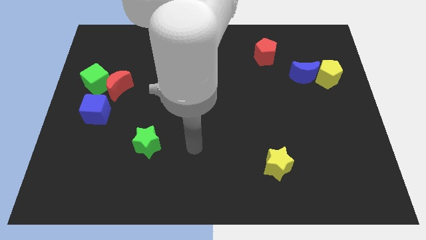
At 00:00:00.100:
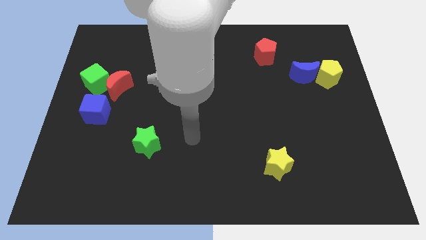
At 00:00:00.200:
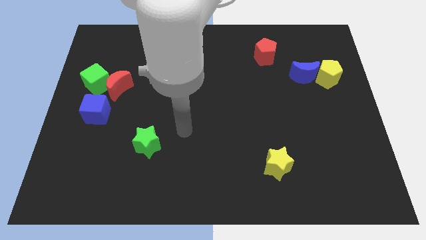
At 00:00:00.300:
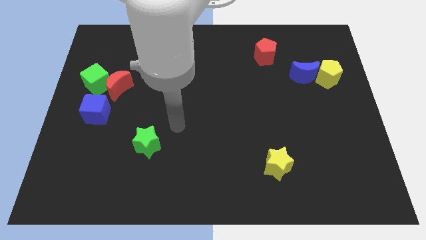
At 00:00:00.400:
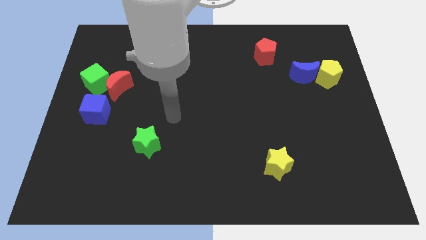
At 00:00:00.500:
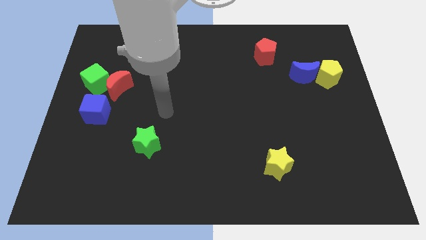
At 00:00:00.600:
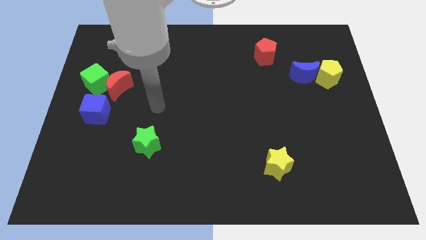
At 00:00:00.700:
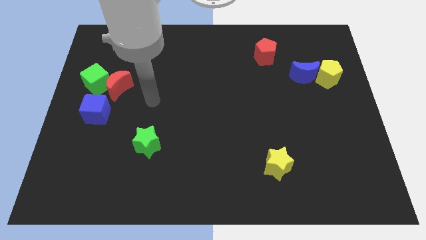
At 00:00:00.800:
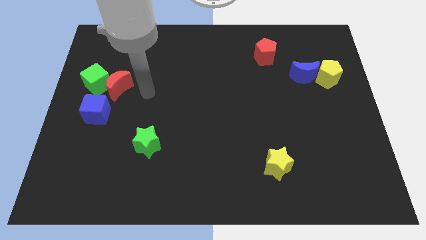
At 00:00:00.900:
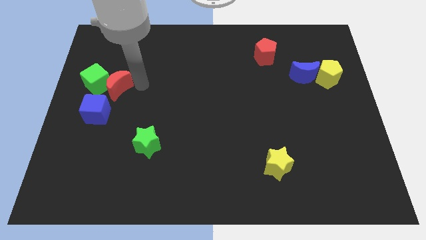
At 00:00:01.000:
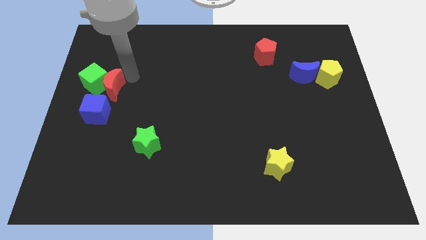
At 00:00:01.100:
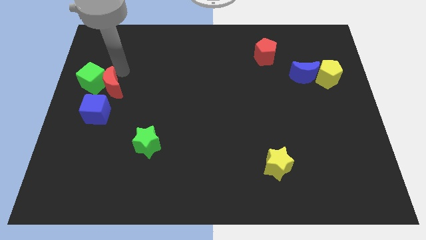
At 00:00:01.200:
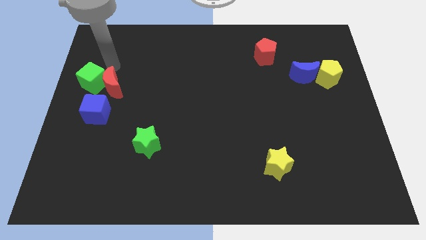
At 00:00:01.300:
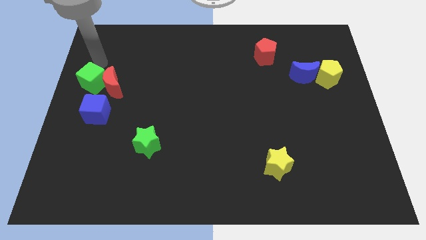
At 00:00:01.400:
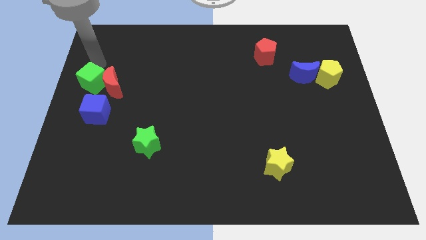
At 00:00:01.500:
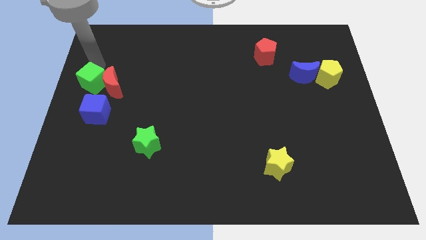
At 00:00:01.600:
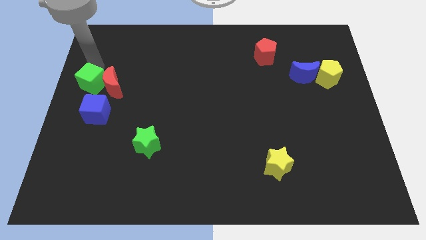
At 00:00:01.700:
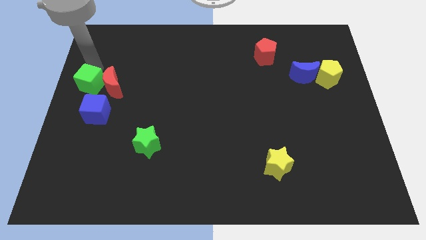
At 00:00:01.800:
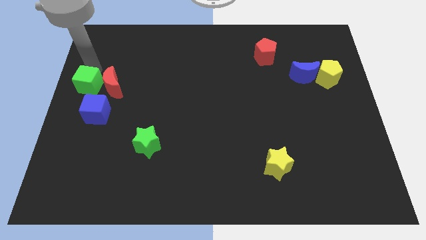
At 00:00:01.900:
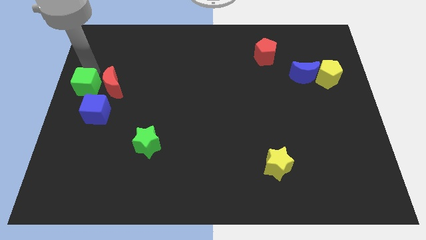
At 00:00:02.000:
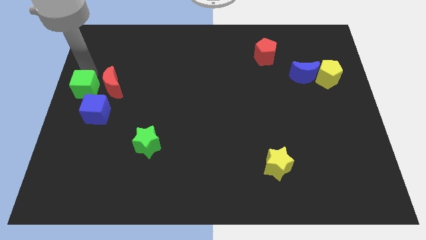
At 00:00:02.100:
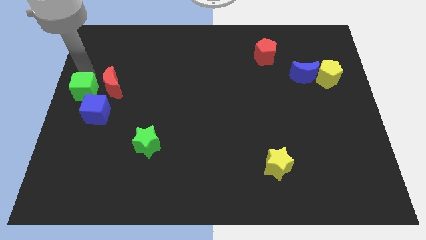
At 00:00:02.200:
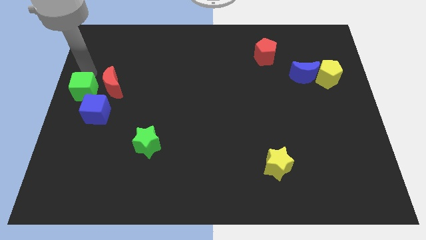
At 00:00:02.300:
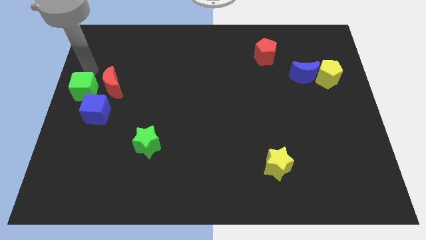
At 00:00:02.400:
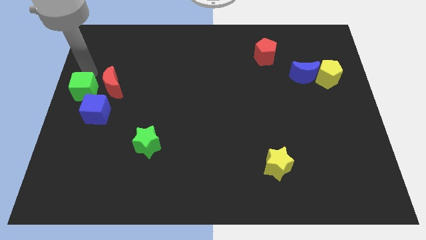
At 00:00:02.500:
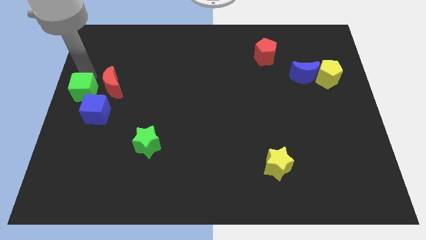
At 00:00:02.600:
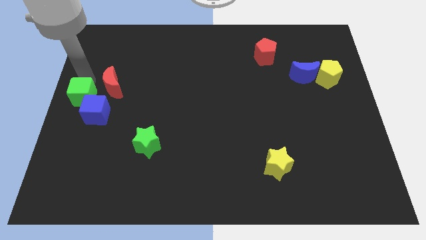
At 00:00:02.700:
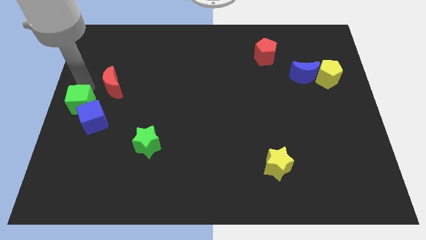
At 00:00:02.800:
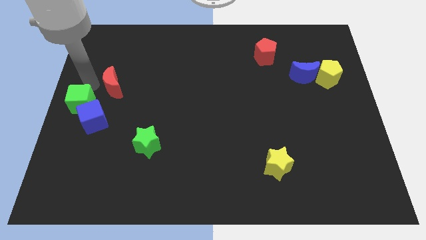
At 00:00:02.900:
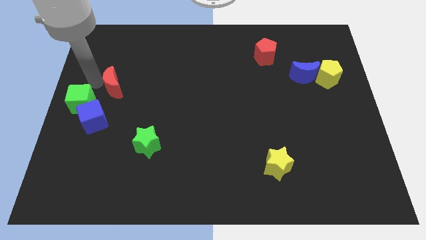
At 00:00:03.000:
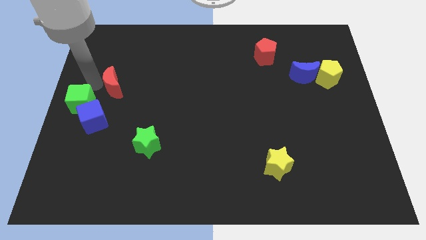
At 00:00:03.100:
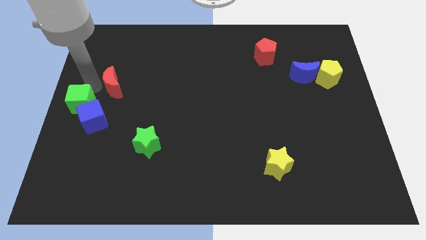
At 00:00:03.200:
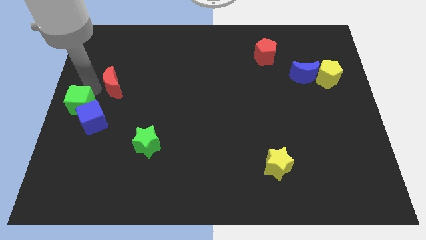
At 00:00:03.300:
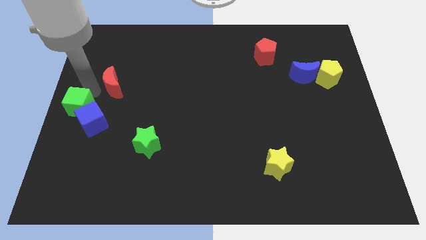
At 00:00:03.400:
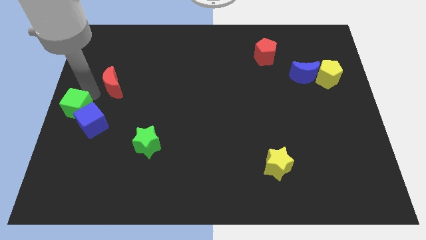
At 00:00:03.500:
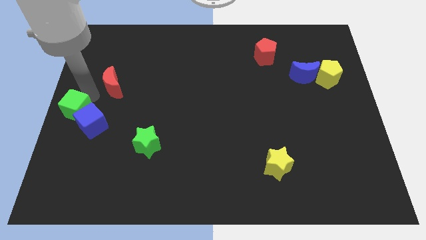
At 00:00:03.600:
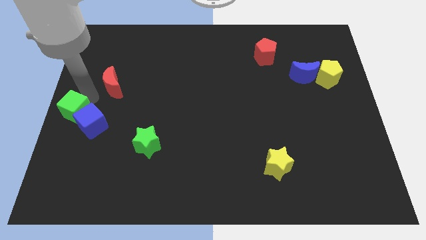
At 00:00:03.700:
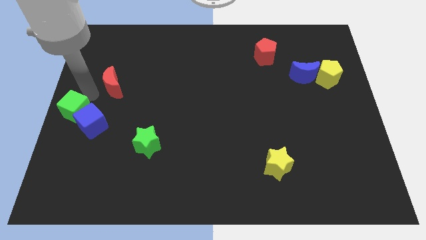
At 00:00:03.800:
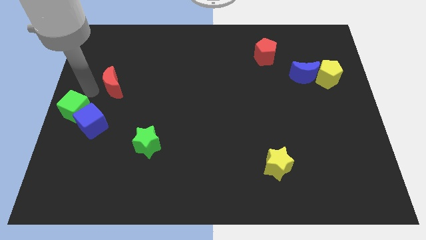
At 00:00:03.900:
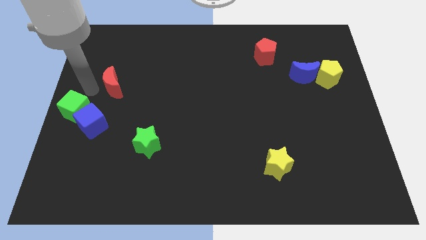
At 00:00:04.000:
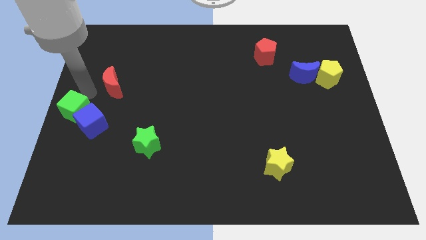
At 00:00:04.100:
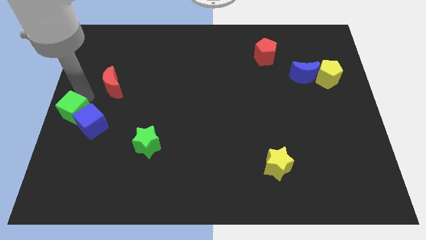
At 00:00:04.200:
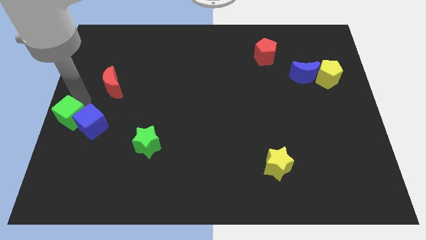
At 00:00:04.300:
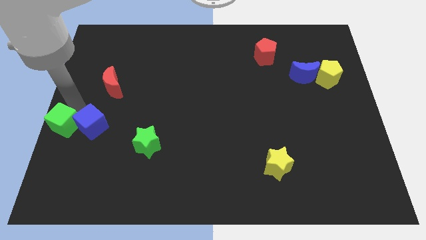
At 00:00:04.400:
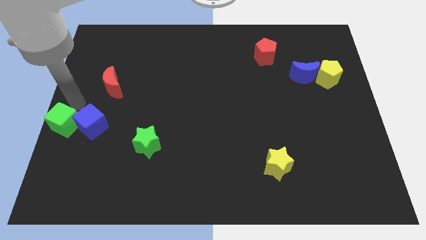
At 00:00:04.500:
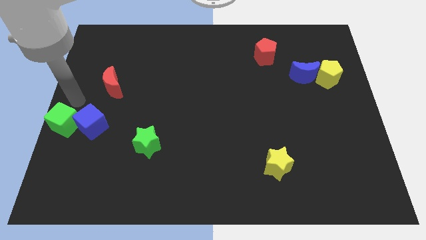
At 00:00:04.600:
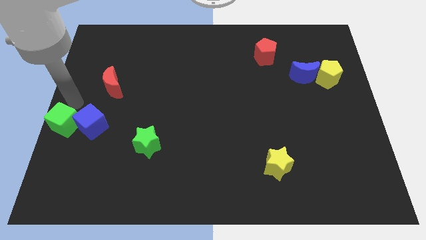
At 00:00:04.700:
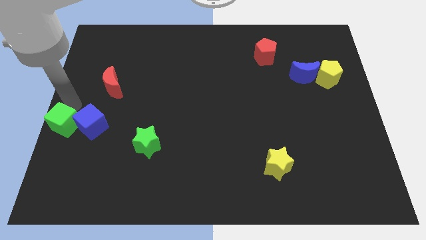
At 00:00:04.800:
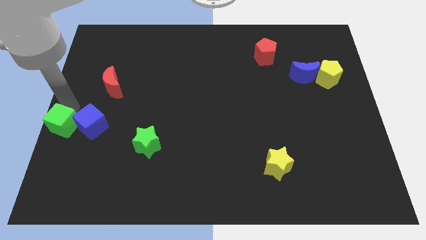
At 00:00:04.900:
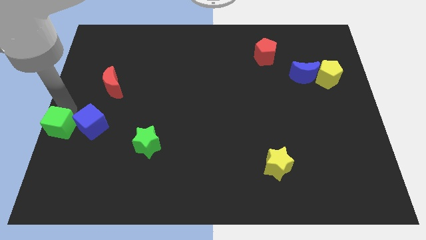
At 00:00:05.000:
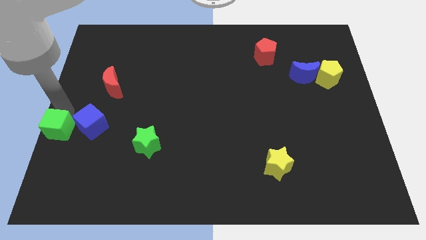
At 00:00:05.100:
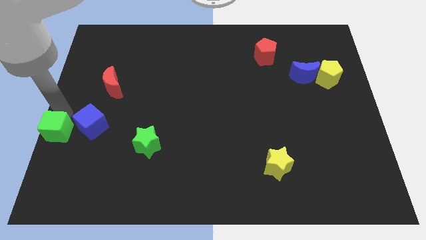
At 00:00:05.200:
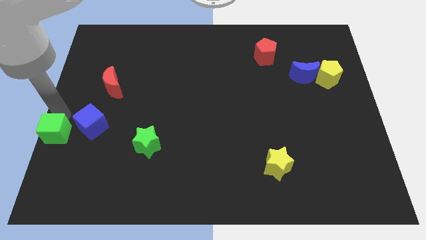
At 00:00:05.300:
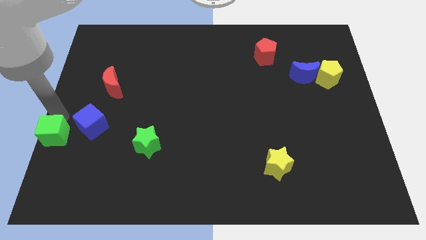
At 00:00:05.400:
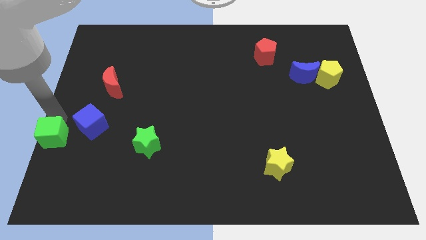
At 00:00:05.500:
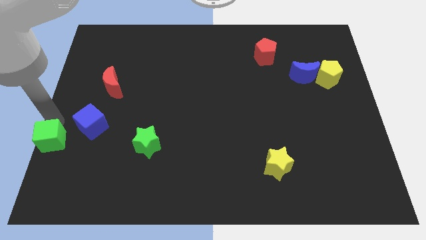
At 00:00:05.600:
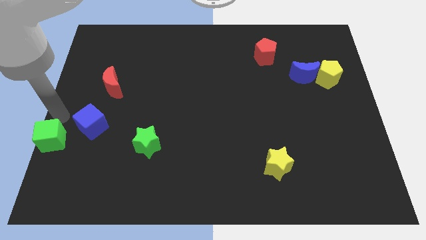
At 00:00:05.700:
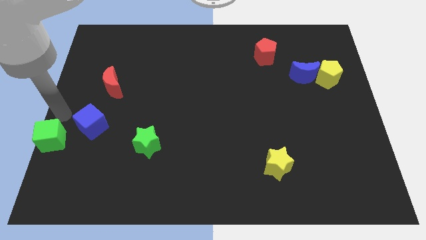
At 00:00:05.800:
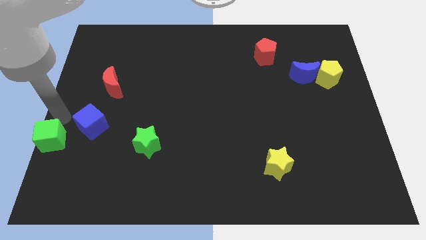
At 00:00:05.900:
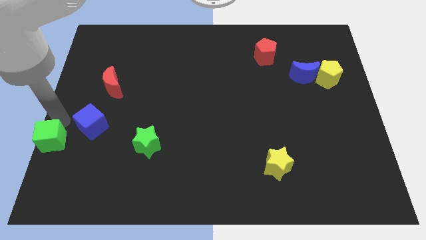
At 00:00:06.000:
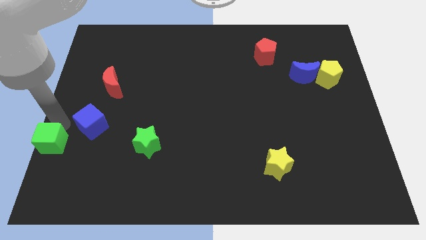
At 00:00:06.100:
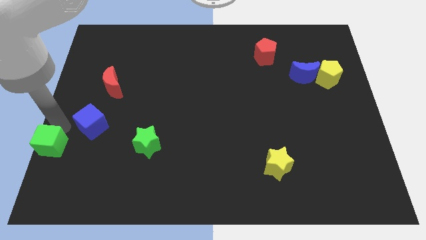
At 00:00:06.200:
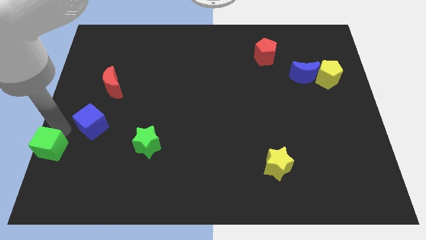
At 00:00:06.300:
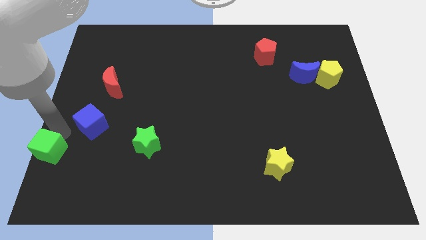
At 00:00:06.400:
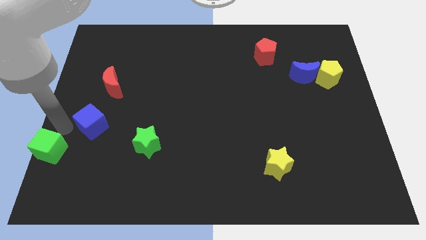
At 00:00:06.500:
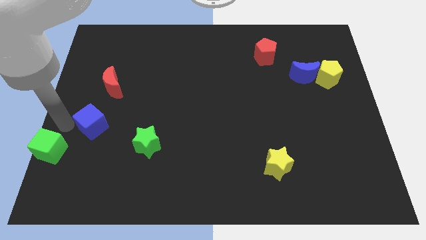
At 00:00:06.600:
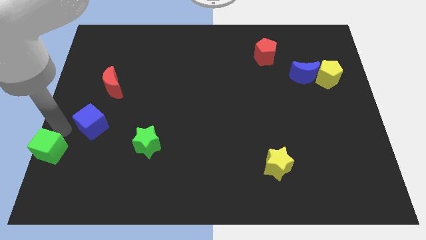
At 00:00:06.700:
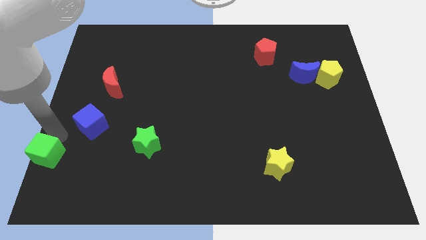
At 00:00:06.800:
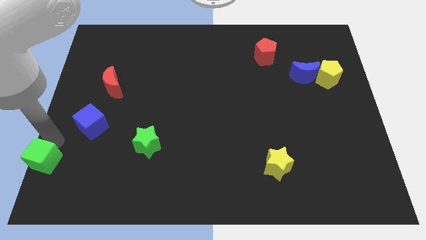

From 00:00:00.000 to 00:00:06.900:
push the green cube to the bottom left corner
